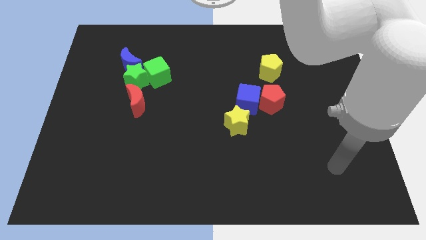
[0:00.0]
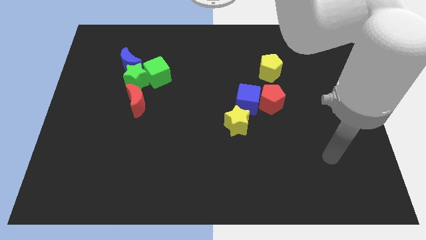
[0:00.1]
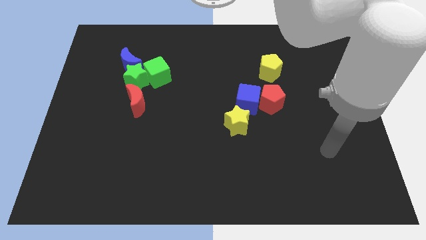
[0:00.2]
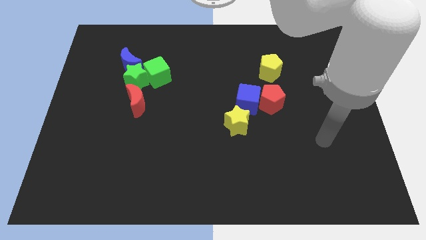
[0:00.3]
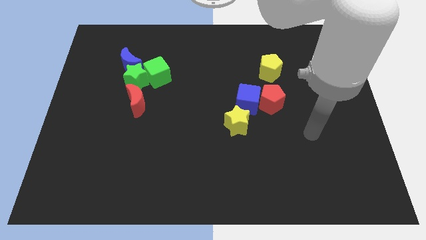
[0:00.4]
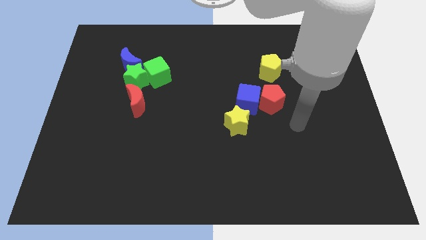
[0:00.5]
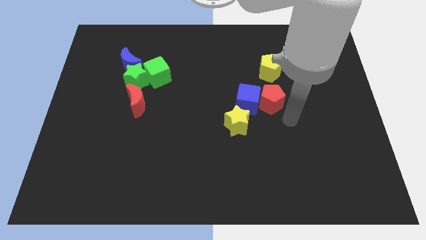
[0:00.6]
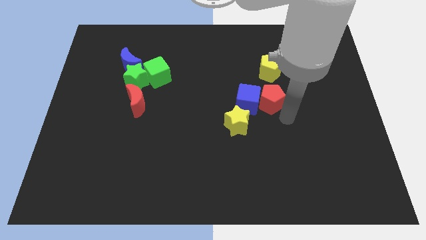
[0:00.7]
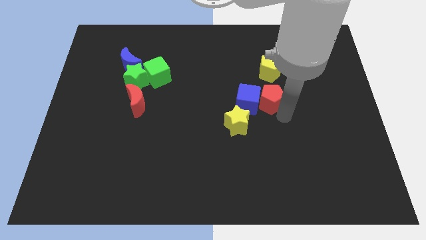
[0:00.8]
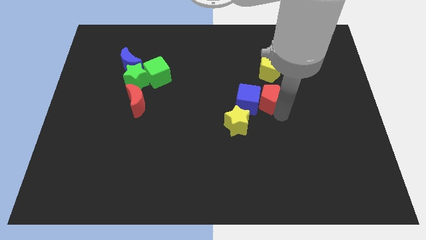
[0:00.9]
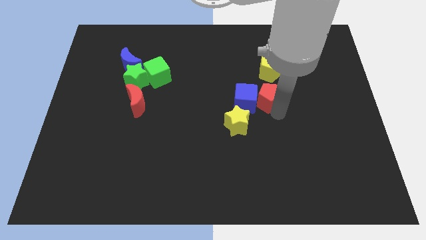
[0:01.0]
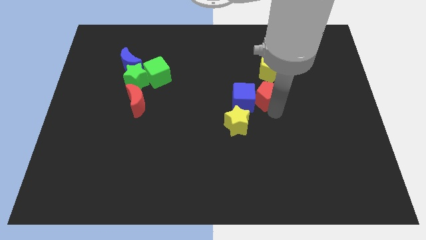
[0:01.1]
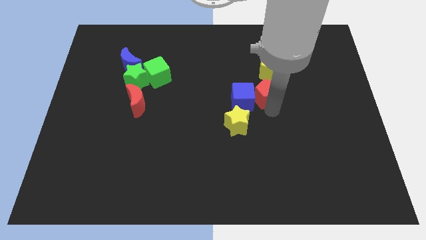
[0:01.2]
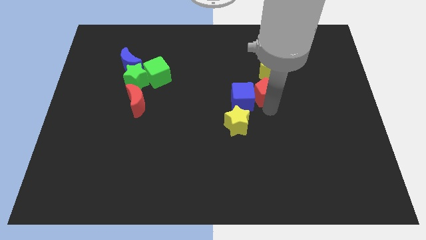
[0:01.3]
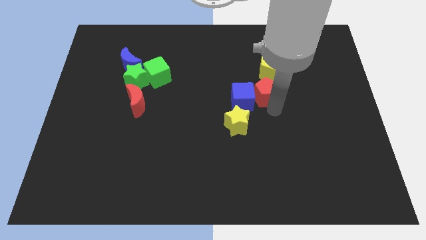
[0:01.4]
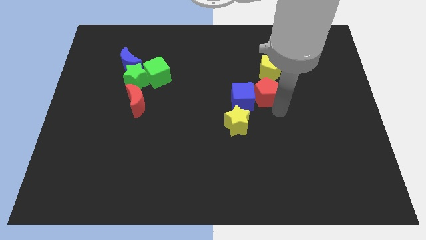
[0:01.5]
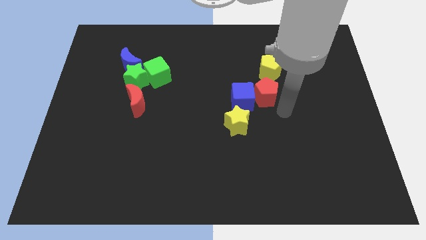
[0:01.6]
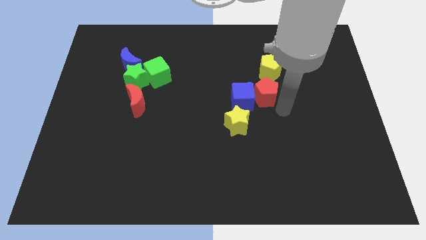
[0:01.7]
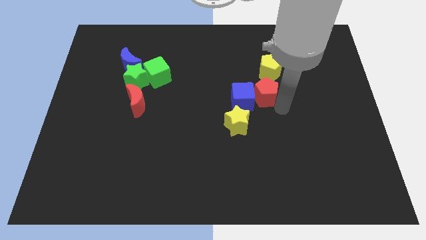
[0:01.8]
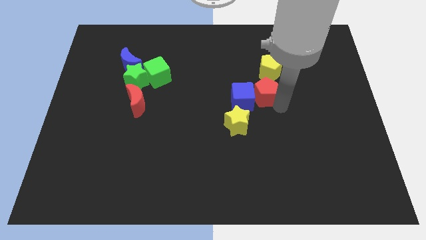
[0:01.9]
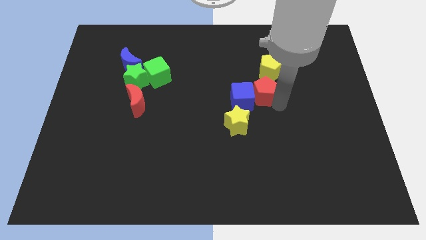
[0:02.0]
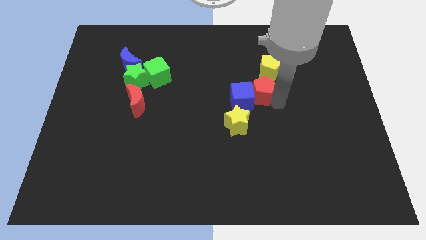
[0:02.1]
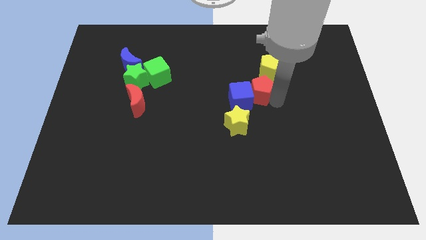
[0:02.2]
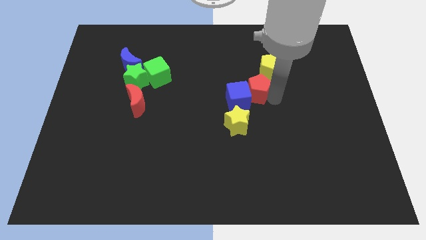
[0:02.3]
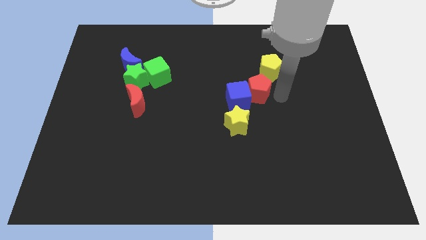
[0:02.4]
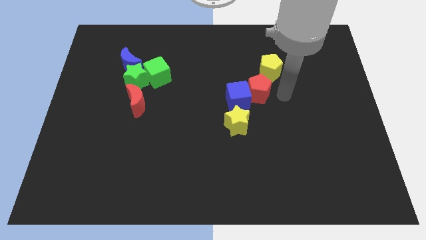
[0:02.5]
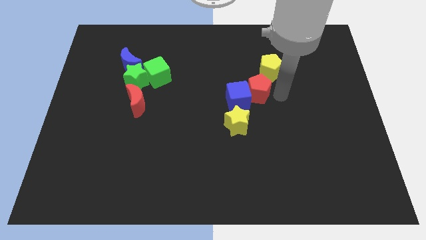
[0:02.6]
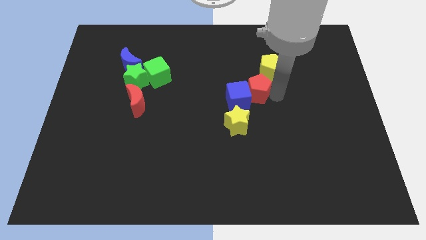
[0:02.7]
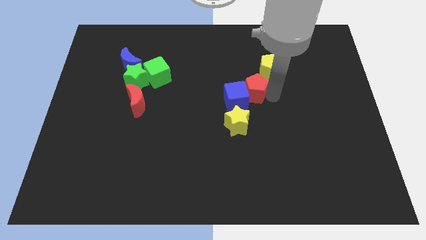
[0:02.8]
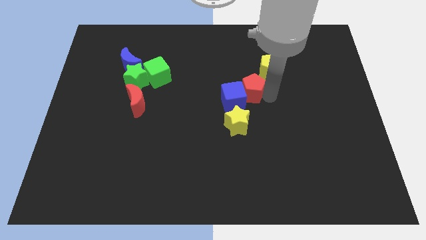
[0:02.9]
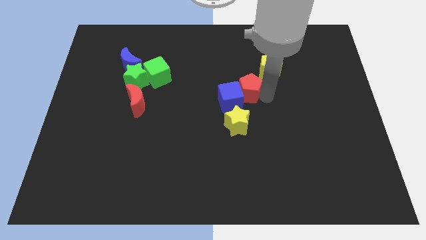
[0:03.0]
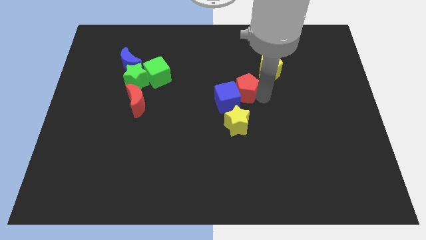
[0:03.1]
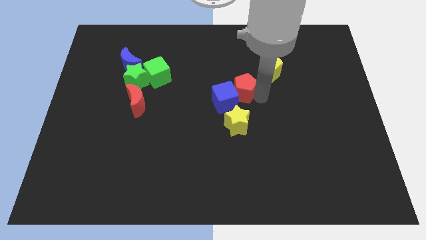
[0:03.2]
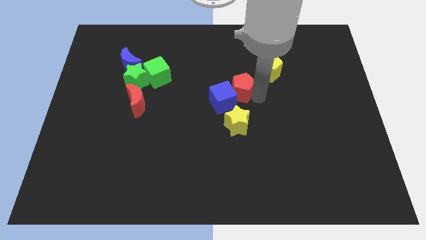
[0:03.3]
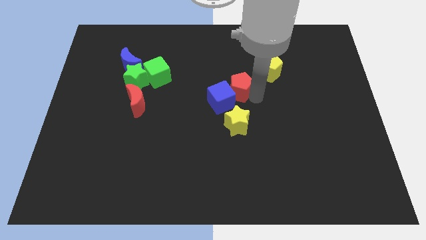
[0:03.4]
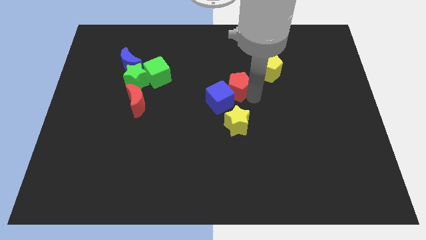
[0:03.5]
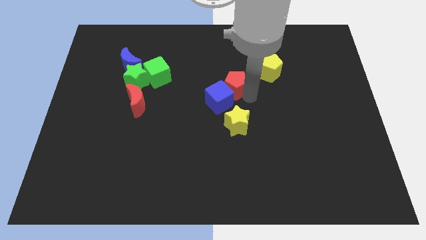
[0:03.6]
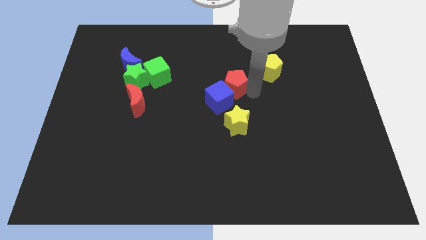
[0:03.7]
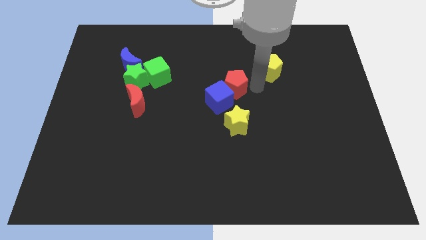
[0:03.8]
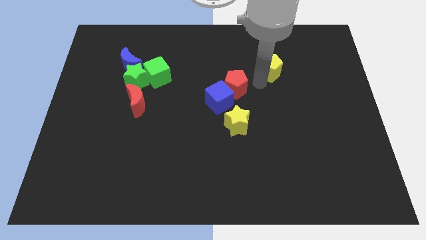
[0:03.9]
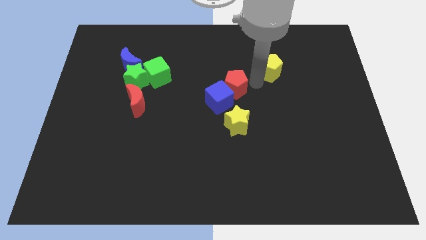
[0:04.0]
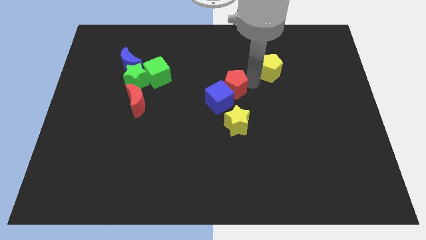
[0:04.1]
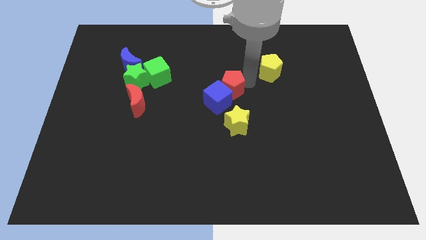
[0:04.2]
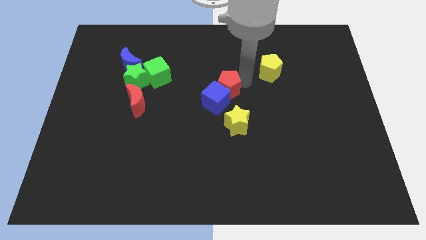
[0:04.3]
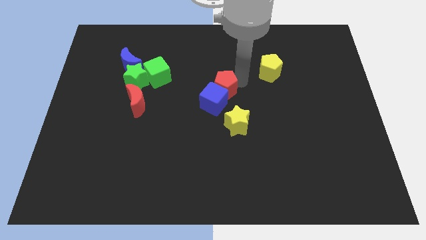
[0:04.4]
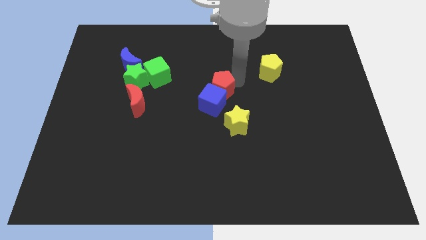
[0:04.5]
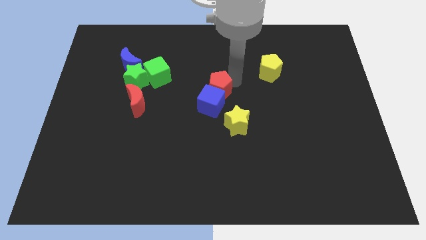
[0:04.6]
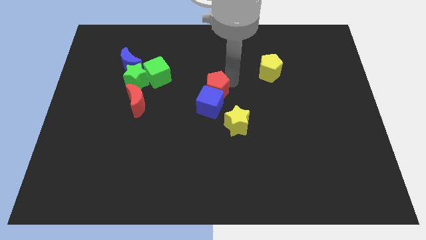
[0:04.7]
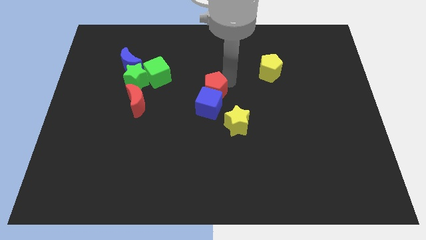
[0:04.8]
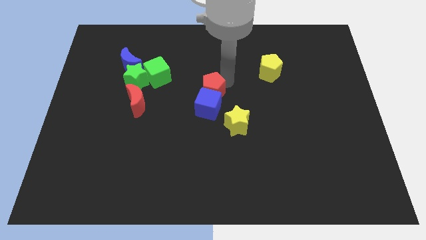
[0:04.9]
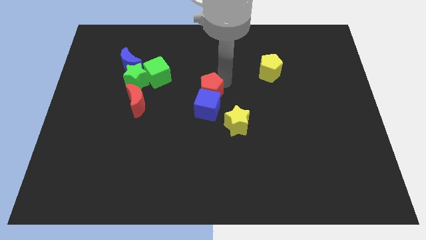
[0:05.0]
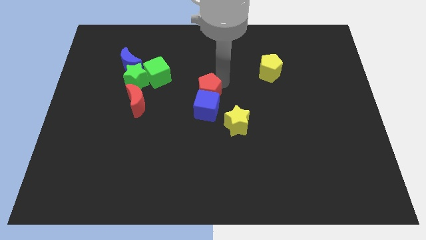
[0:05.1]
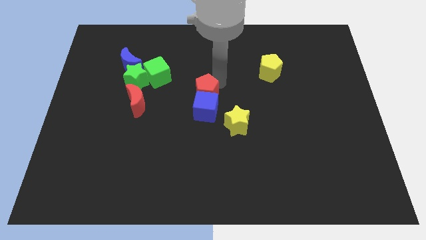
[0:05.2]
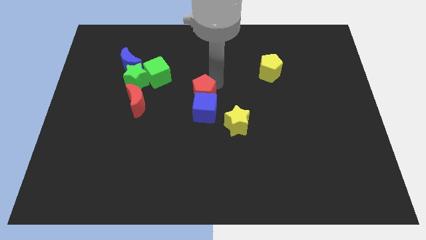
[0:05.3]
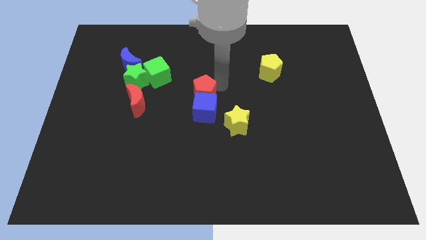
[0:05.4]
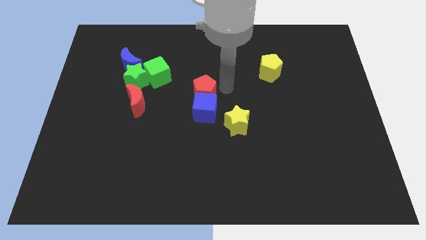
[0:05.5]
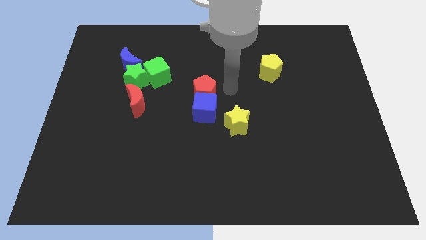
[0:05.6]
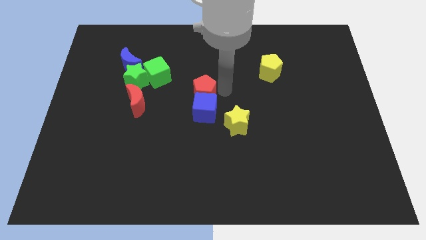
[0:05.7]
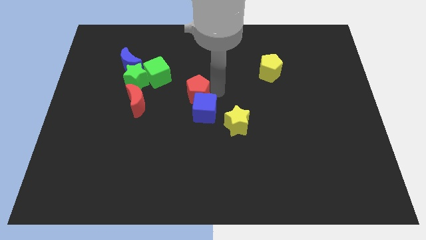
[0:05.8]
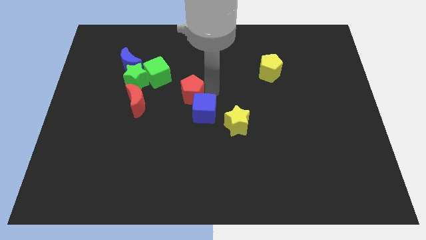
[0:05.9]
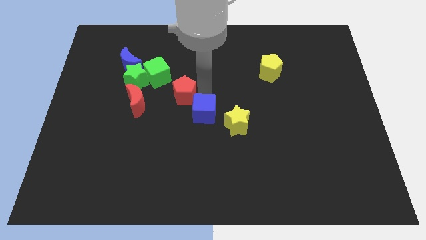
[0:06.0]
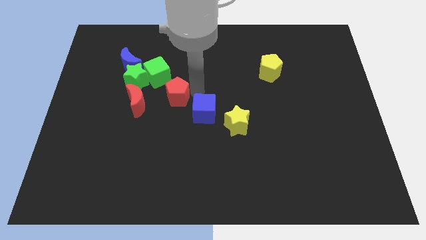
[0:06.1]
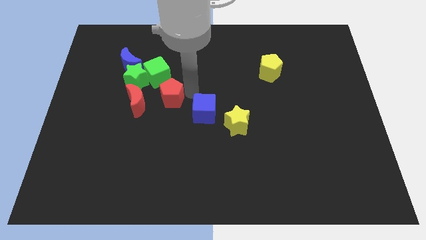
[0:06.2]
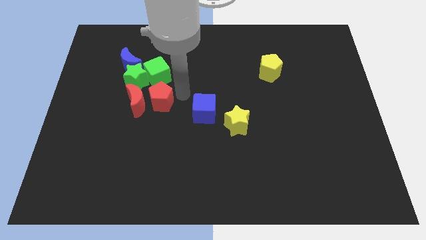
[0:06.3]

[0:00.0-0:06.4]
move the red pentagon to the red moon
